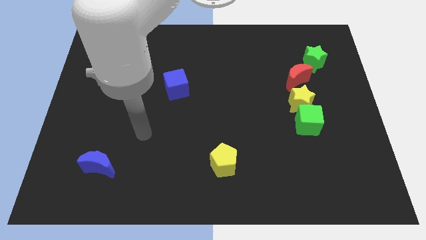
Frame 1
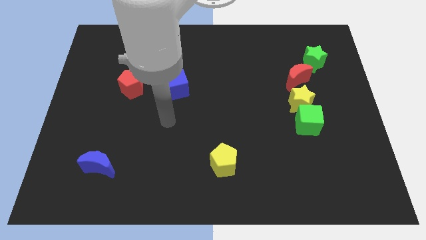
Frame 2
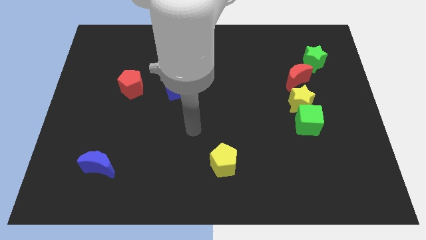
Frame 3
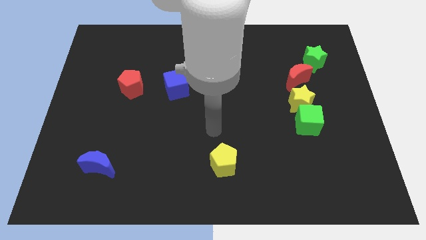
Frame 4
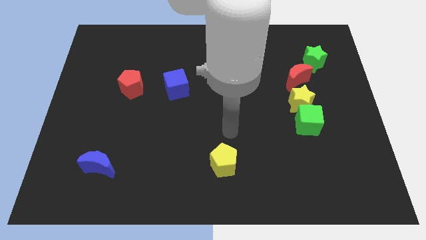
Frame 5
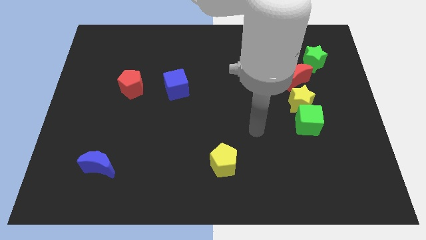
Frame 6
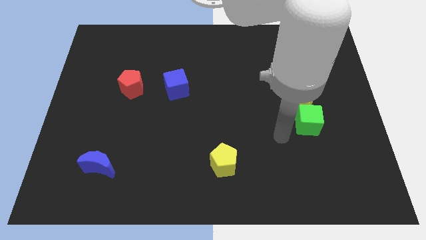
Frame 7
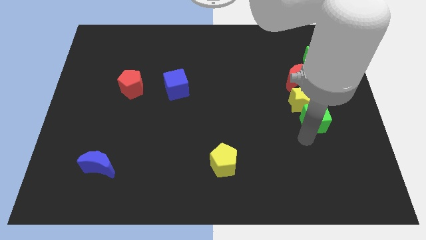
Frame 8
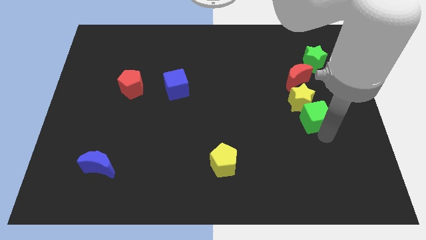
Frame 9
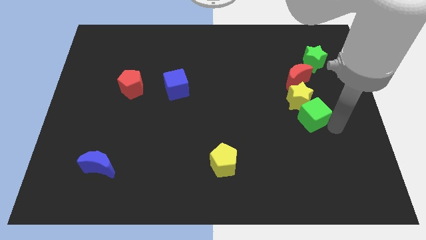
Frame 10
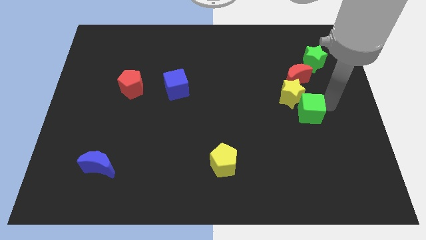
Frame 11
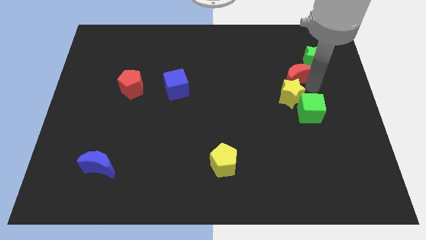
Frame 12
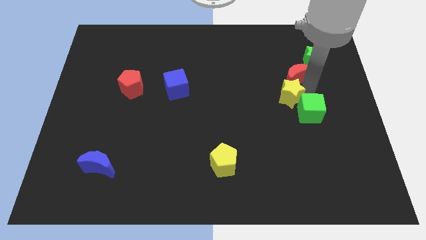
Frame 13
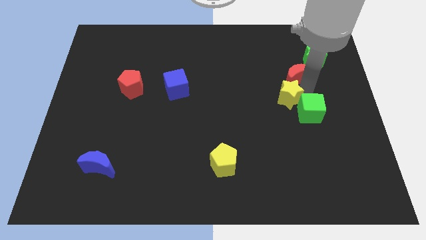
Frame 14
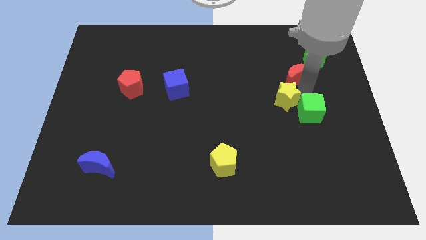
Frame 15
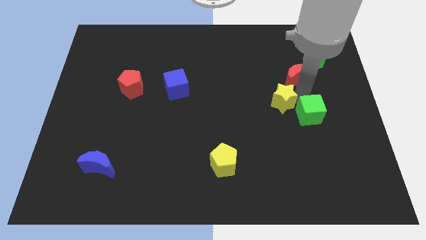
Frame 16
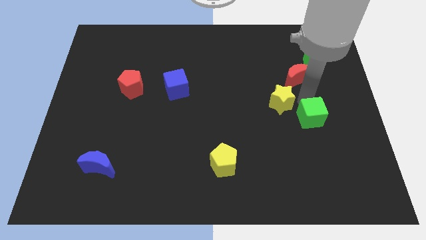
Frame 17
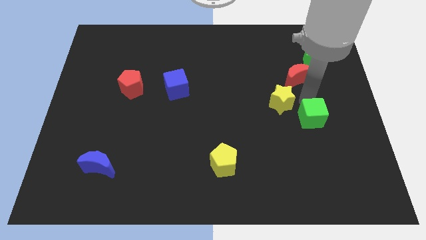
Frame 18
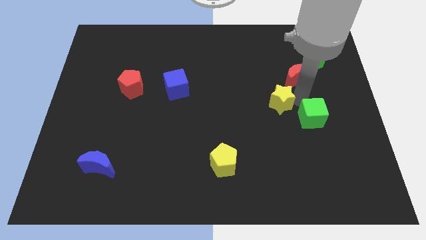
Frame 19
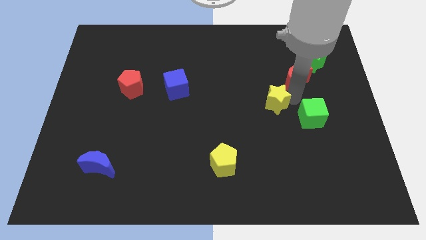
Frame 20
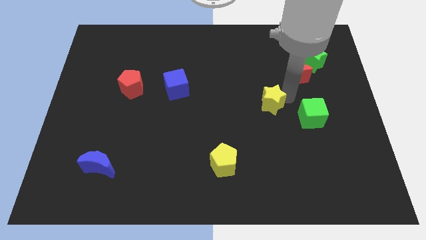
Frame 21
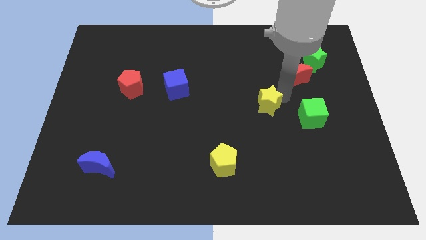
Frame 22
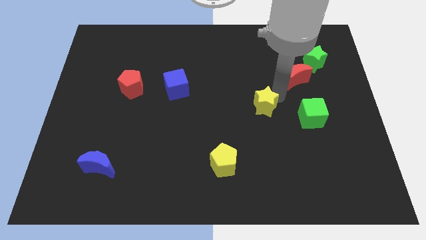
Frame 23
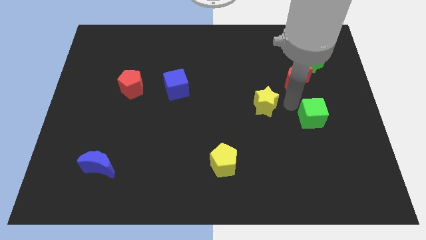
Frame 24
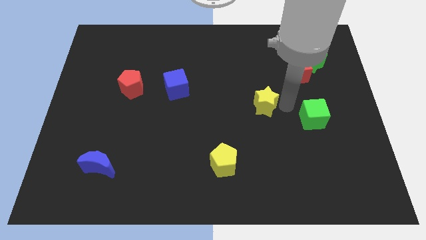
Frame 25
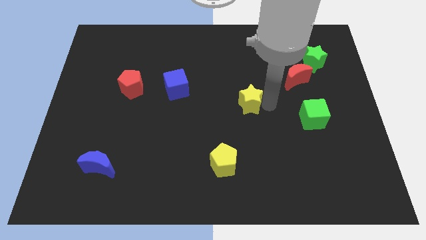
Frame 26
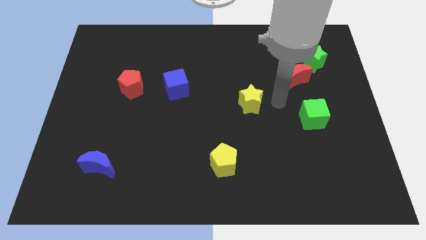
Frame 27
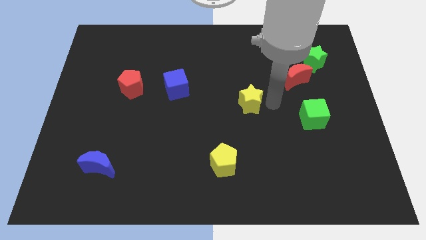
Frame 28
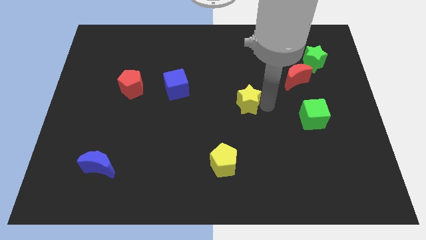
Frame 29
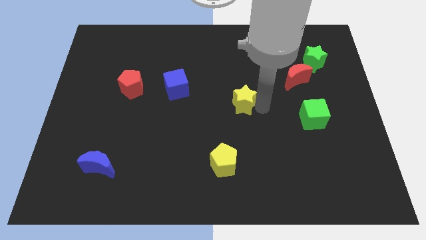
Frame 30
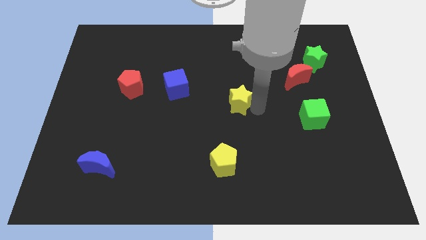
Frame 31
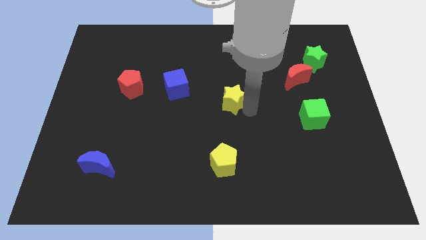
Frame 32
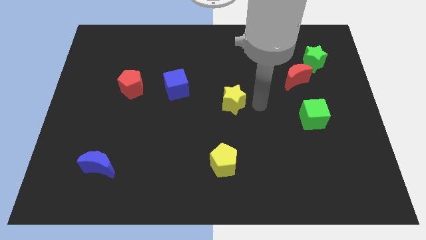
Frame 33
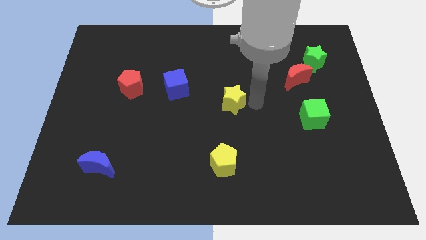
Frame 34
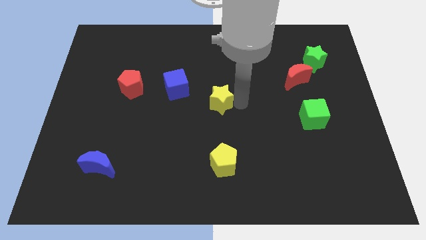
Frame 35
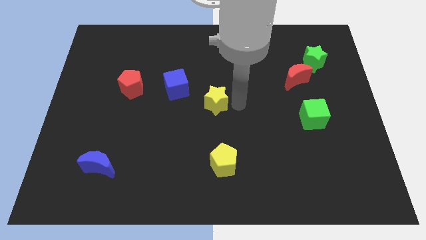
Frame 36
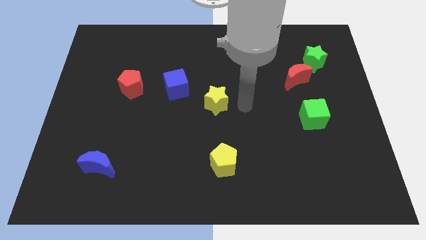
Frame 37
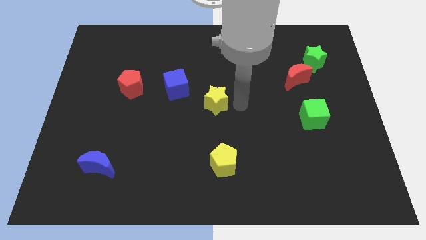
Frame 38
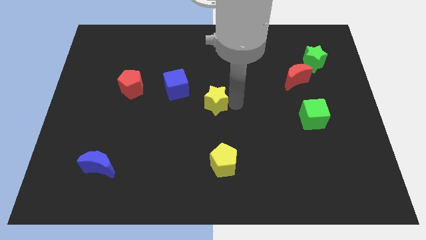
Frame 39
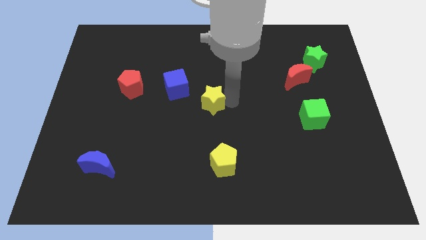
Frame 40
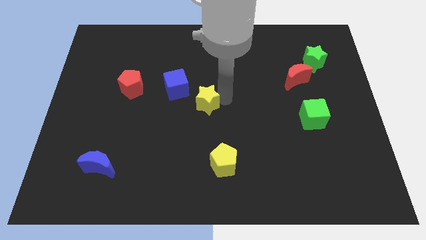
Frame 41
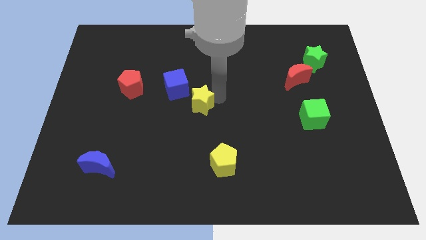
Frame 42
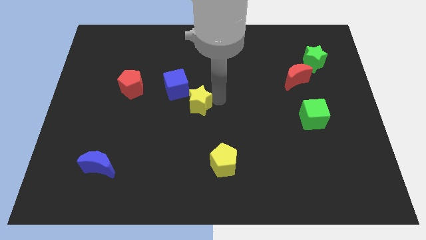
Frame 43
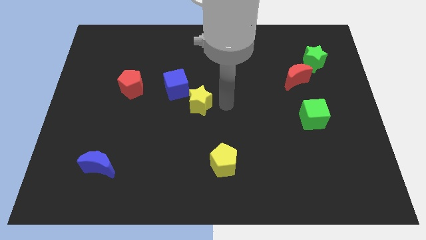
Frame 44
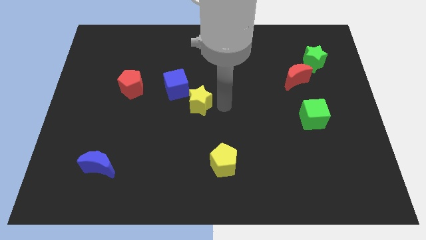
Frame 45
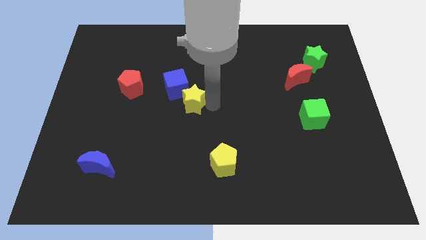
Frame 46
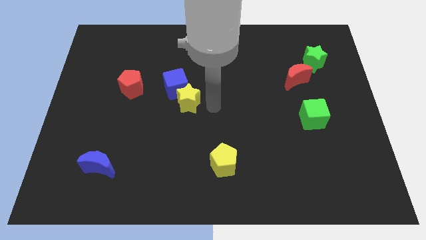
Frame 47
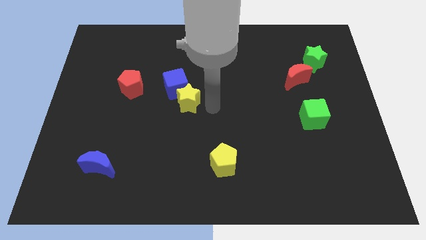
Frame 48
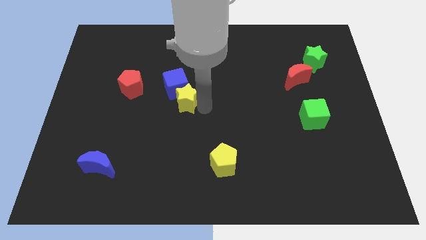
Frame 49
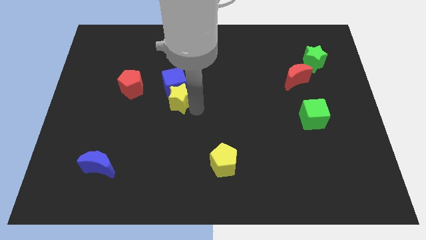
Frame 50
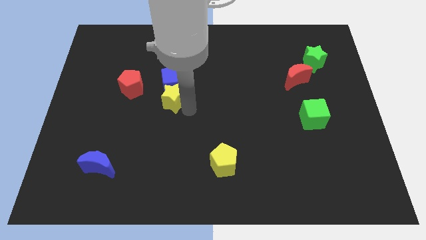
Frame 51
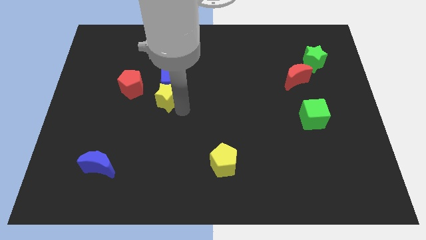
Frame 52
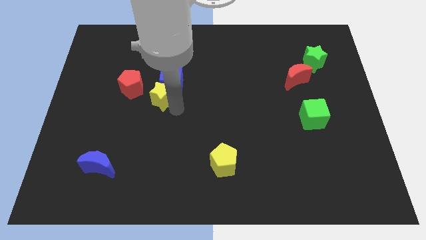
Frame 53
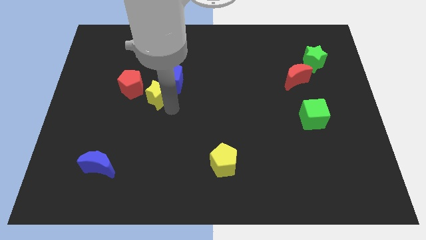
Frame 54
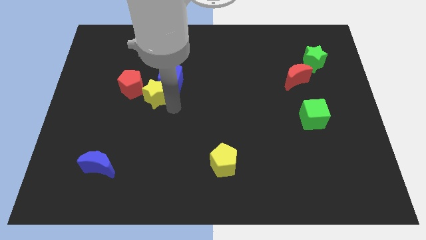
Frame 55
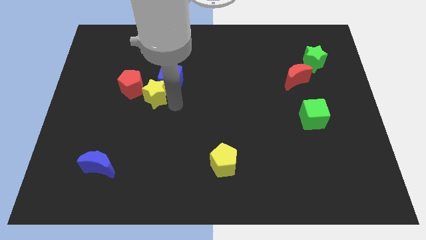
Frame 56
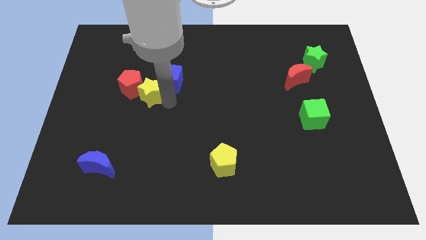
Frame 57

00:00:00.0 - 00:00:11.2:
push the yellow star towards the red pentagon
